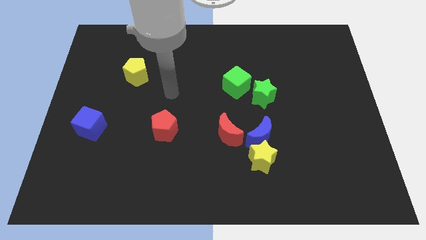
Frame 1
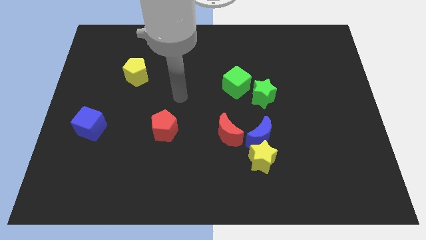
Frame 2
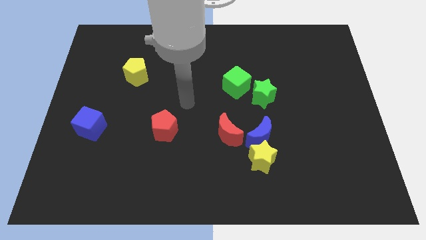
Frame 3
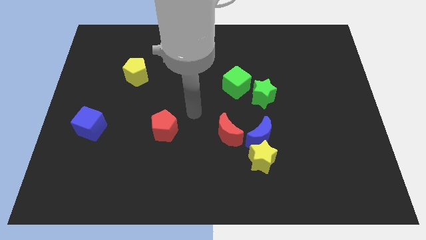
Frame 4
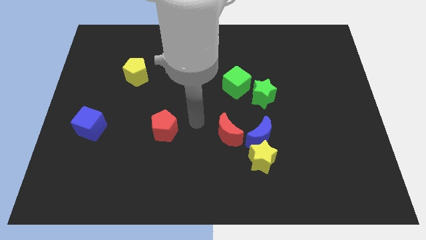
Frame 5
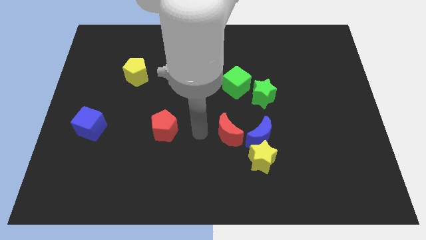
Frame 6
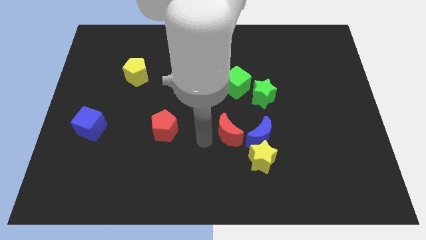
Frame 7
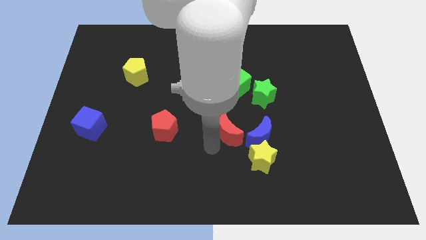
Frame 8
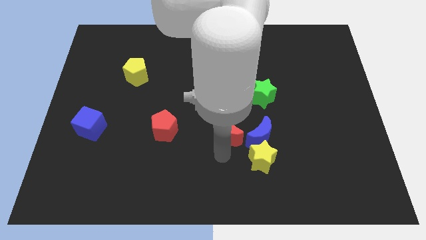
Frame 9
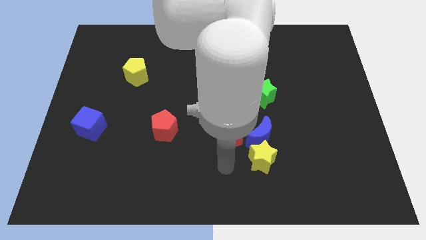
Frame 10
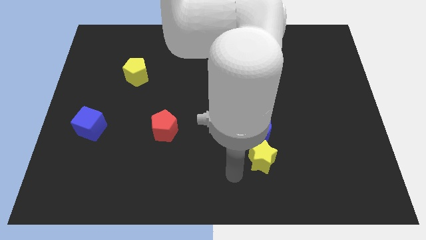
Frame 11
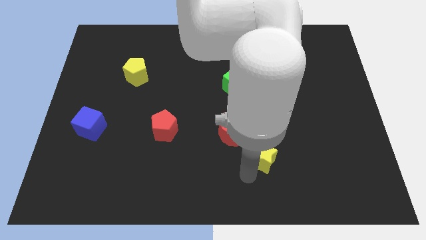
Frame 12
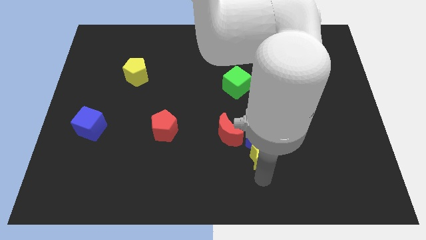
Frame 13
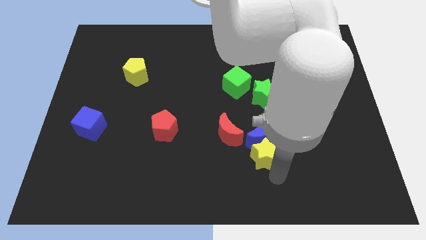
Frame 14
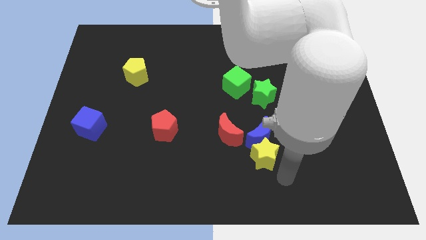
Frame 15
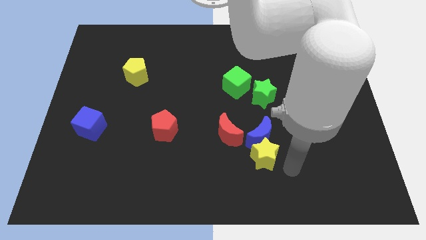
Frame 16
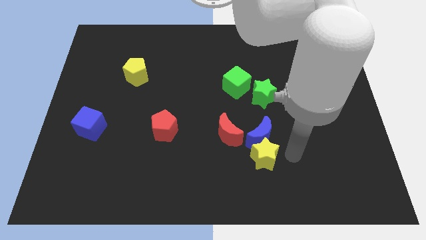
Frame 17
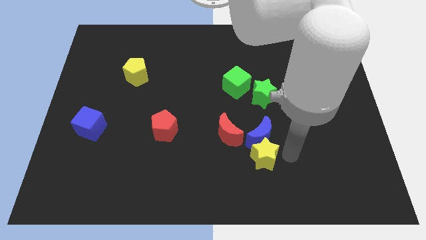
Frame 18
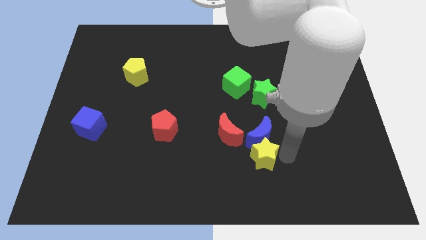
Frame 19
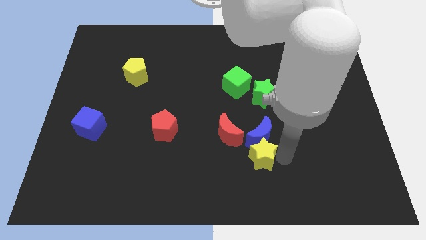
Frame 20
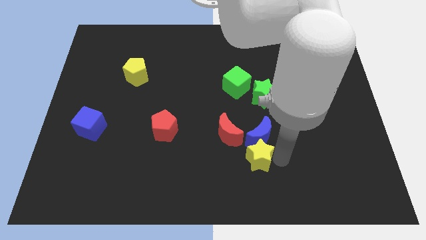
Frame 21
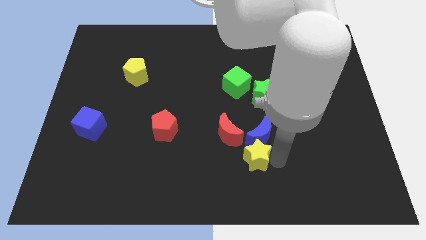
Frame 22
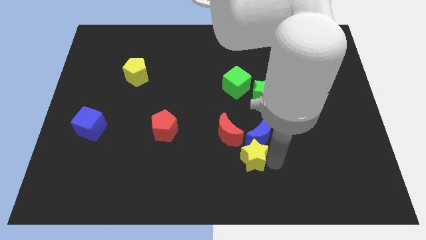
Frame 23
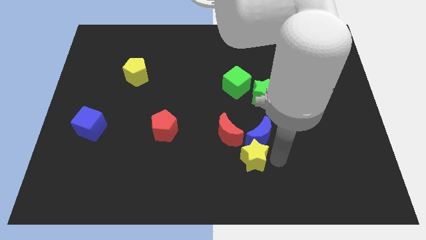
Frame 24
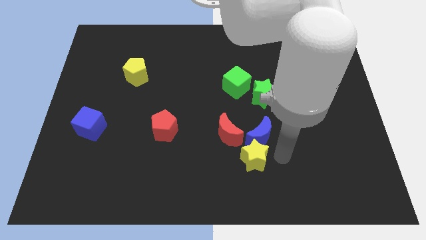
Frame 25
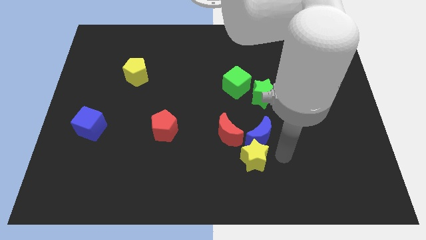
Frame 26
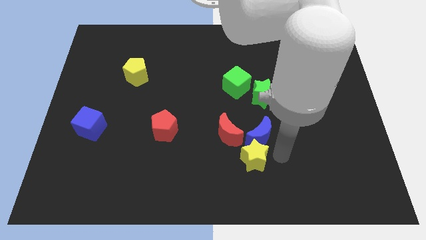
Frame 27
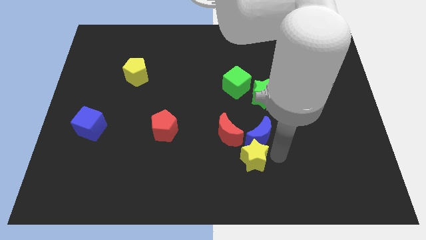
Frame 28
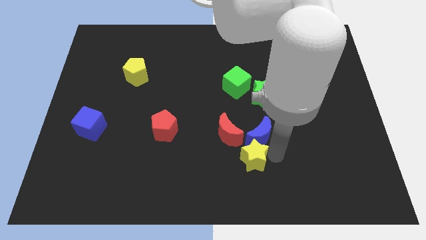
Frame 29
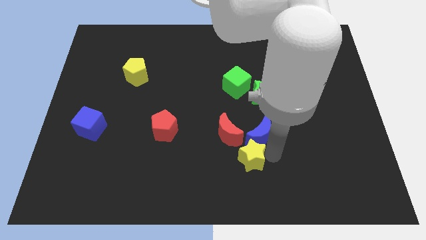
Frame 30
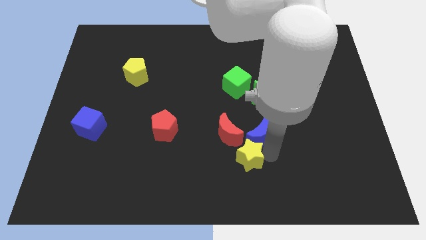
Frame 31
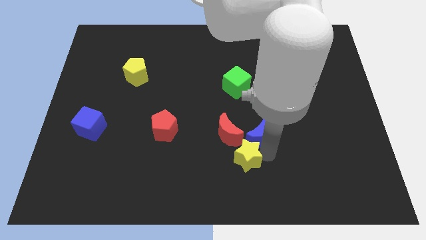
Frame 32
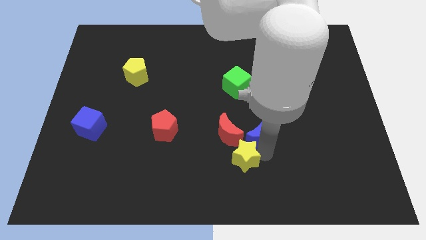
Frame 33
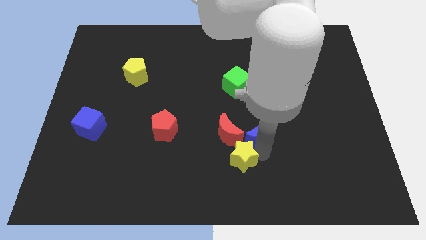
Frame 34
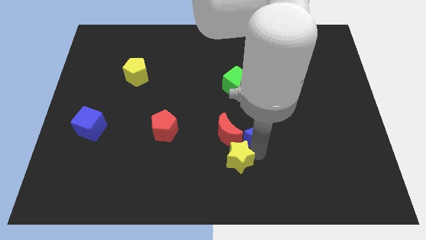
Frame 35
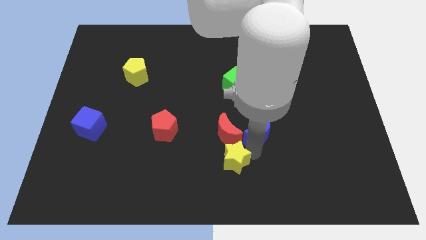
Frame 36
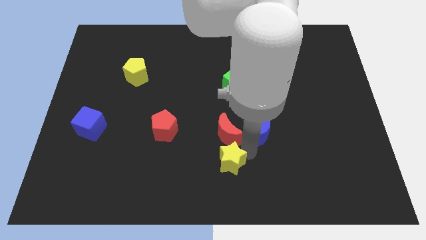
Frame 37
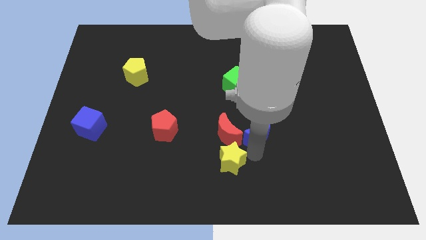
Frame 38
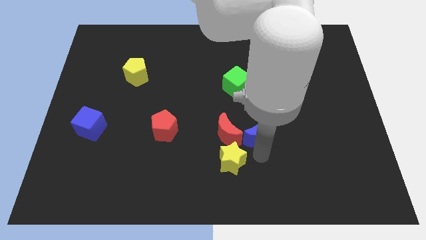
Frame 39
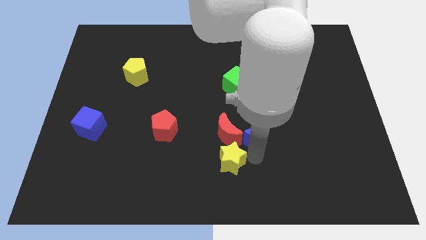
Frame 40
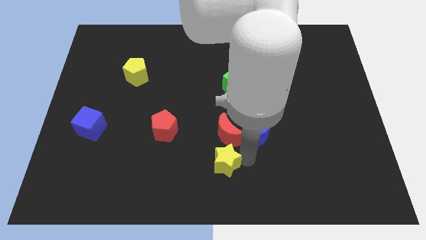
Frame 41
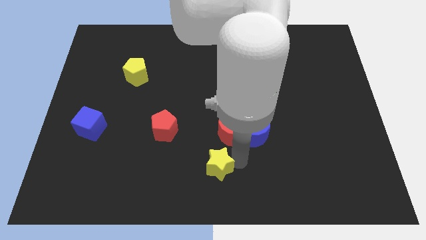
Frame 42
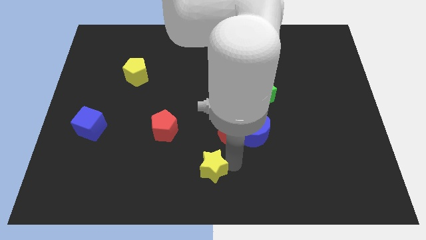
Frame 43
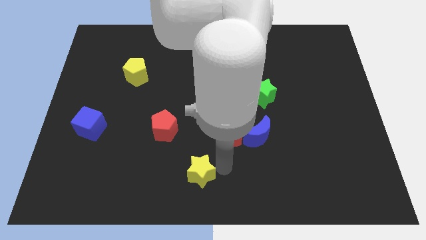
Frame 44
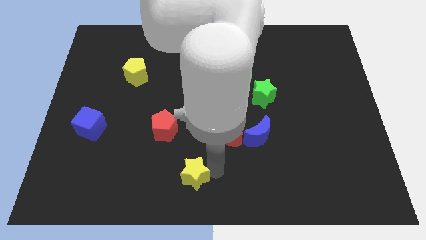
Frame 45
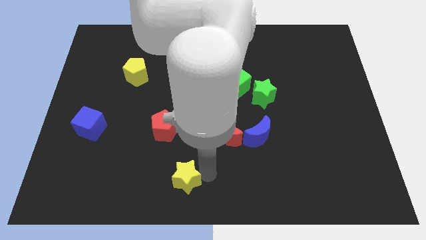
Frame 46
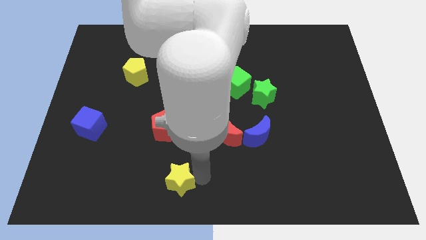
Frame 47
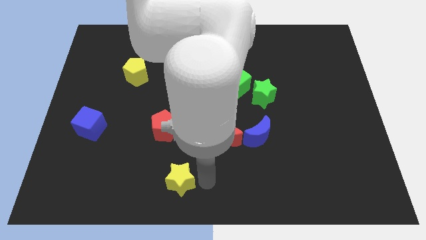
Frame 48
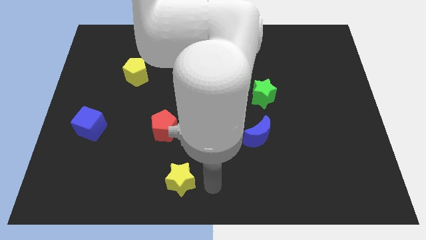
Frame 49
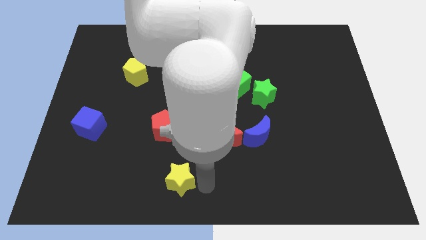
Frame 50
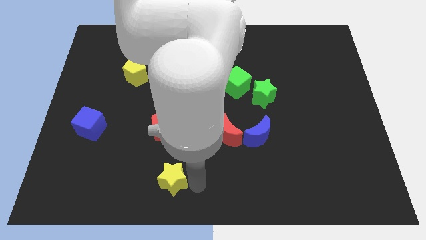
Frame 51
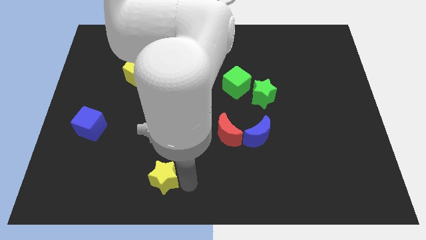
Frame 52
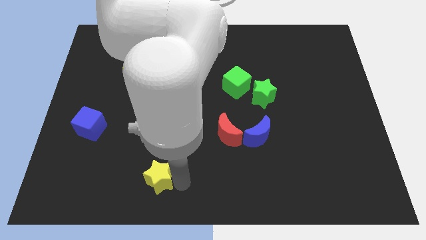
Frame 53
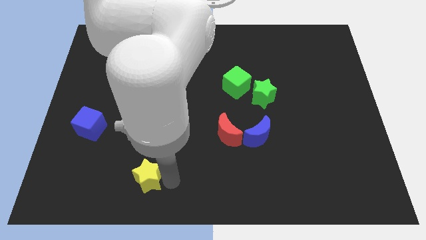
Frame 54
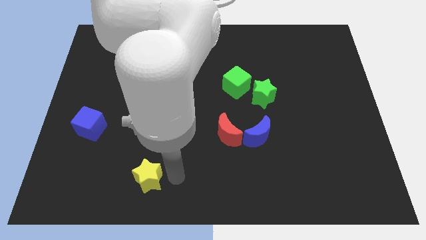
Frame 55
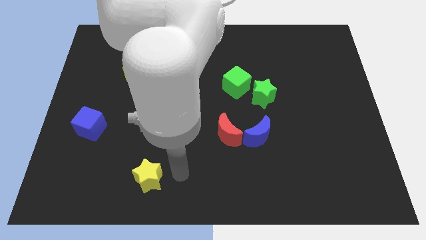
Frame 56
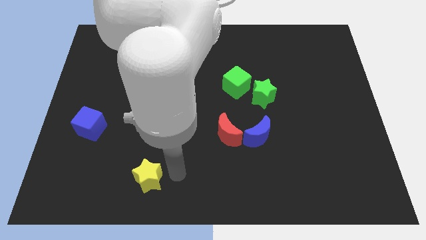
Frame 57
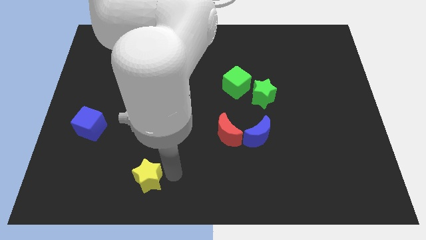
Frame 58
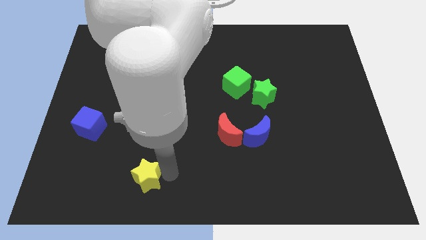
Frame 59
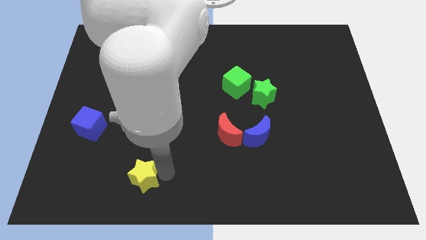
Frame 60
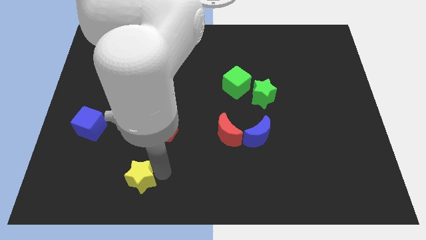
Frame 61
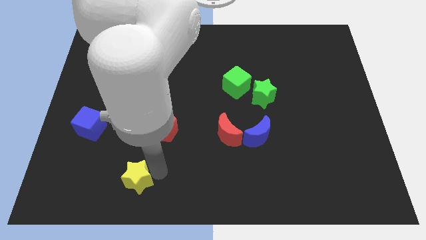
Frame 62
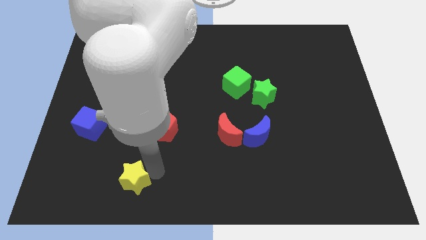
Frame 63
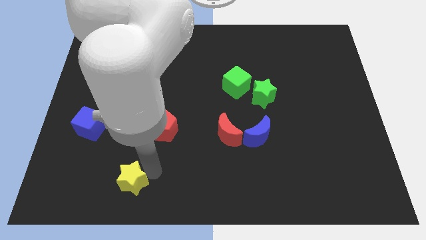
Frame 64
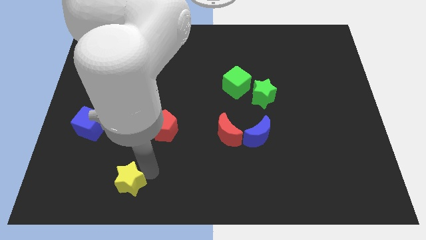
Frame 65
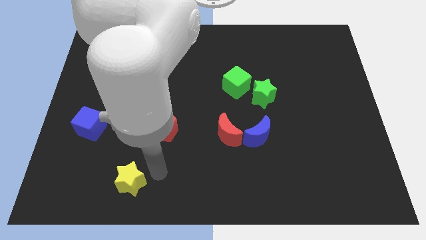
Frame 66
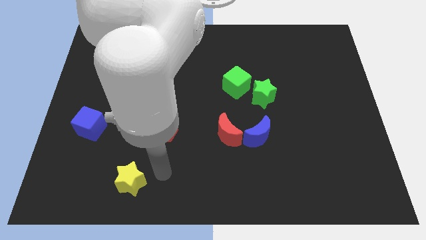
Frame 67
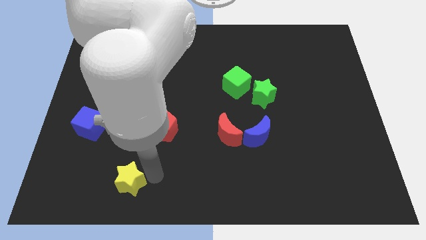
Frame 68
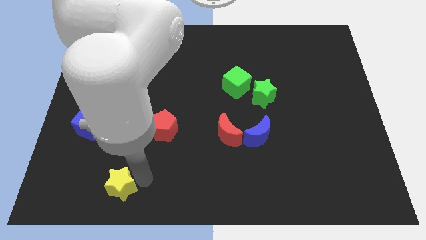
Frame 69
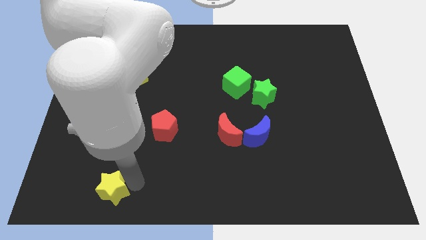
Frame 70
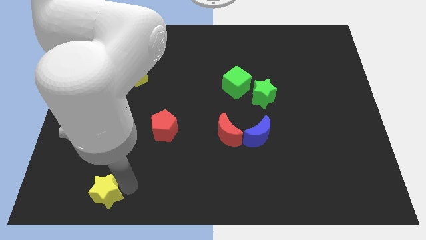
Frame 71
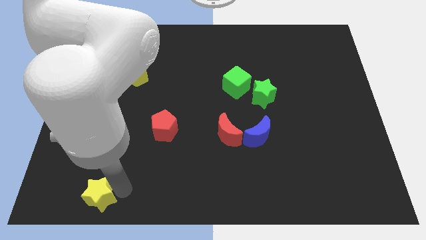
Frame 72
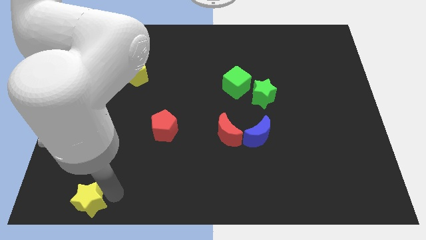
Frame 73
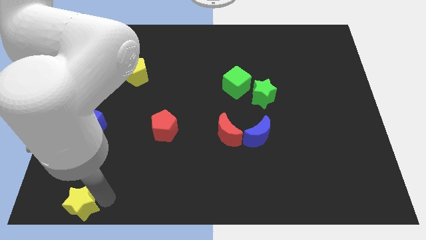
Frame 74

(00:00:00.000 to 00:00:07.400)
push the yellow star to the bottom left of the board
